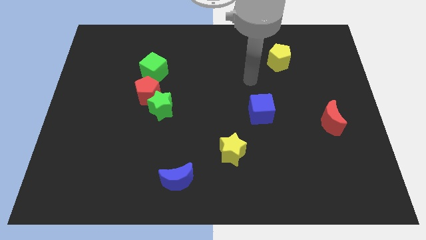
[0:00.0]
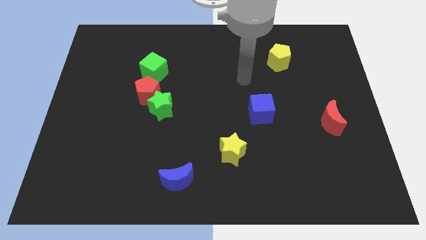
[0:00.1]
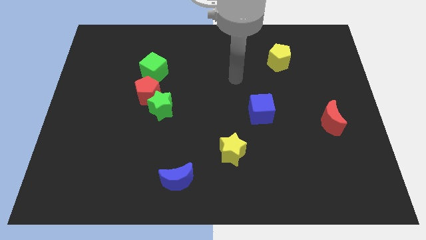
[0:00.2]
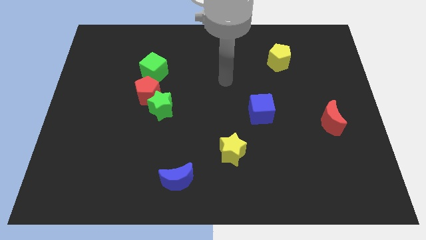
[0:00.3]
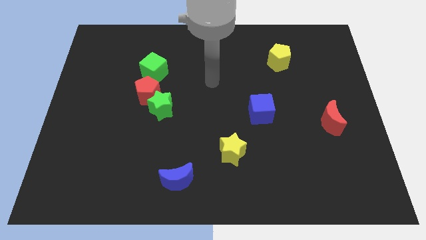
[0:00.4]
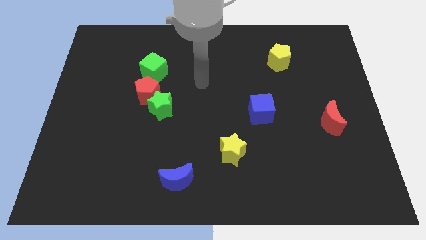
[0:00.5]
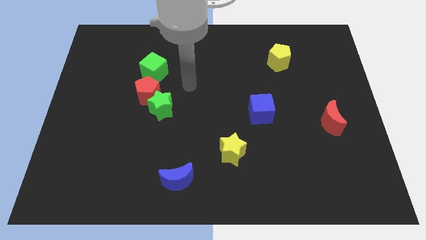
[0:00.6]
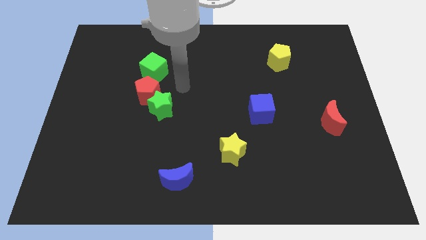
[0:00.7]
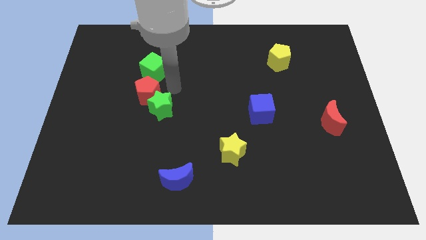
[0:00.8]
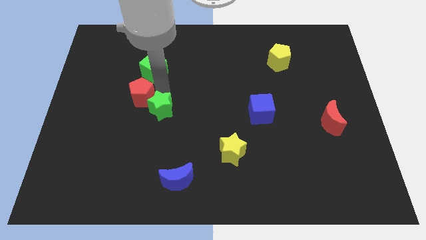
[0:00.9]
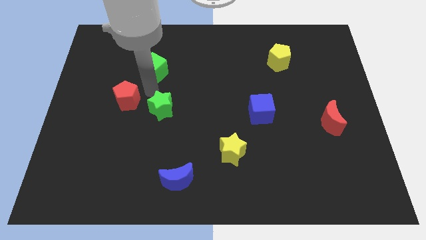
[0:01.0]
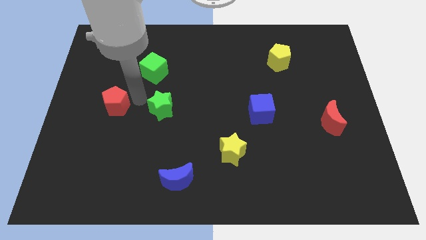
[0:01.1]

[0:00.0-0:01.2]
separate the green star from the red pentagon

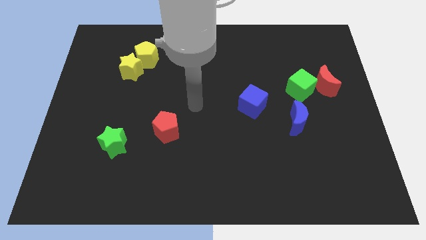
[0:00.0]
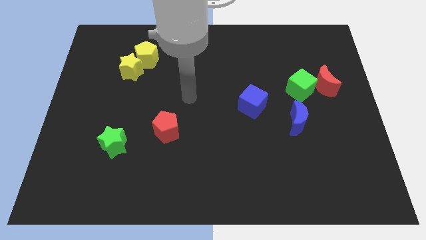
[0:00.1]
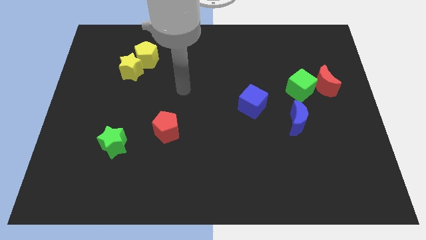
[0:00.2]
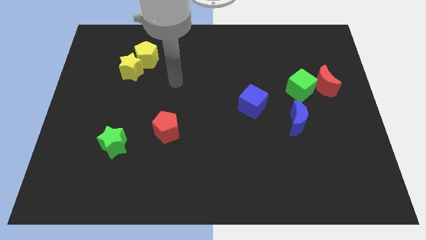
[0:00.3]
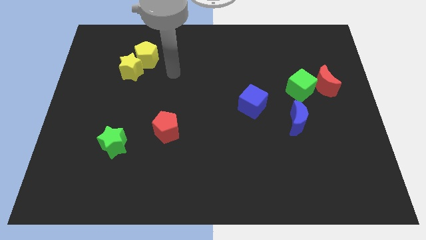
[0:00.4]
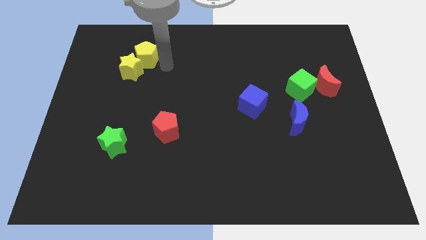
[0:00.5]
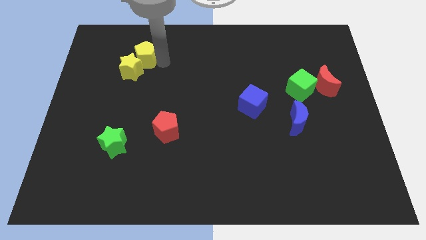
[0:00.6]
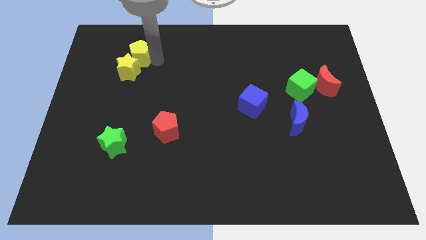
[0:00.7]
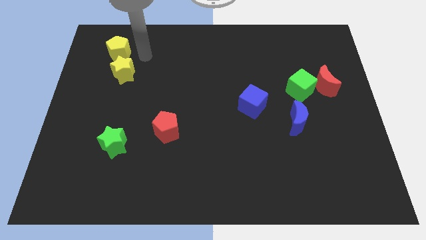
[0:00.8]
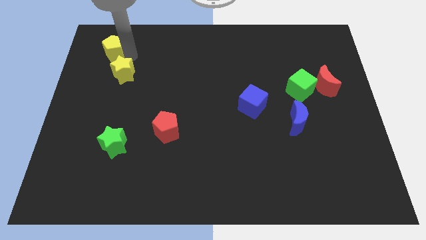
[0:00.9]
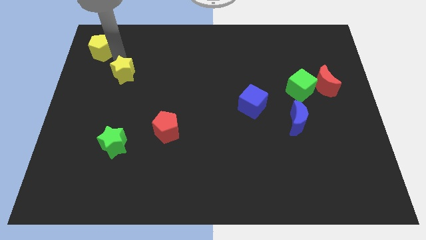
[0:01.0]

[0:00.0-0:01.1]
pull the yellow star apart from the yellow pentagon

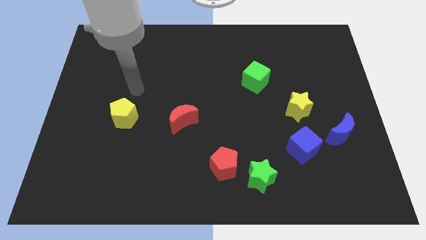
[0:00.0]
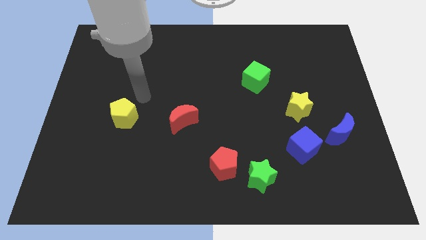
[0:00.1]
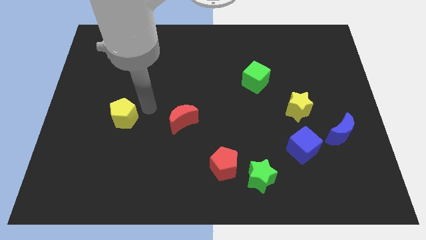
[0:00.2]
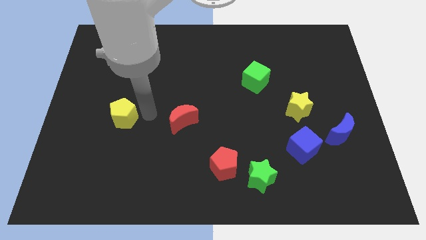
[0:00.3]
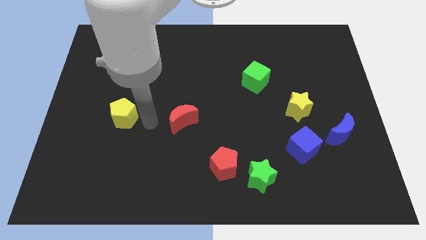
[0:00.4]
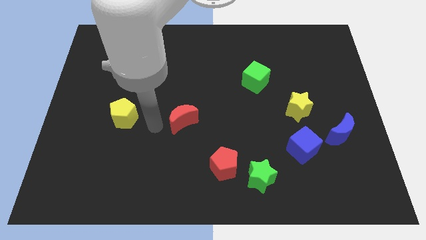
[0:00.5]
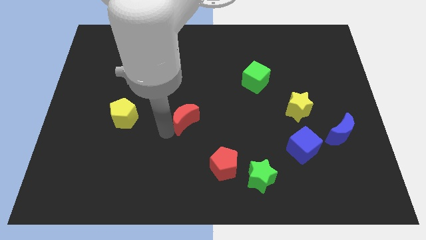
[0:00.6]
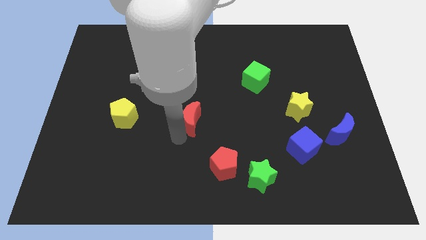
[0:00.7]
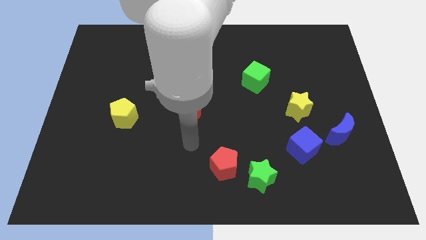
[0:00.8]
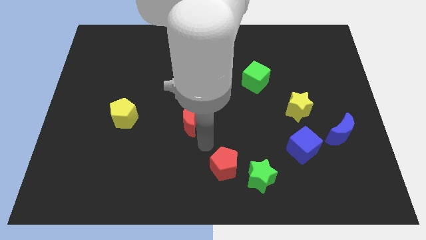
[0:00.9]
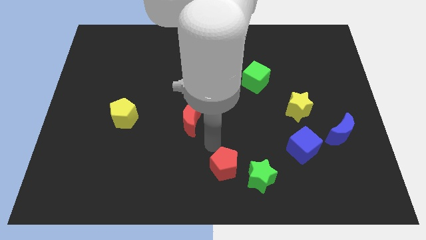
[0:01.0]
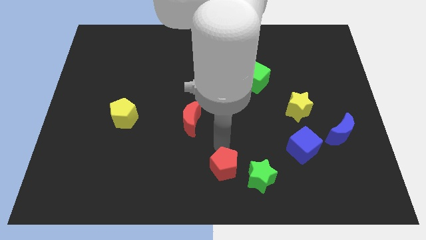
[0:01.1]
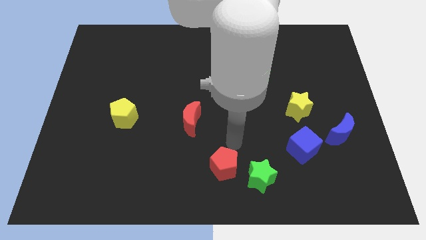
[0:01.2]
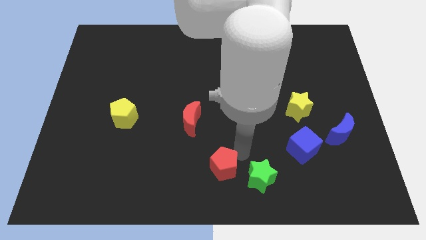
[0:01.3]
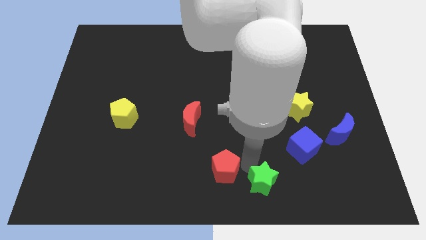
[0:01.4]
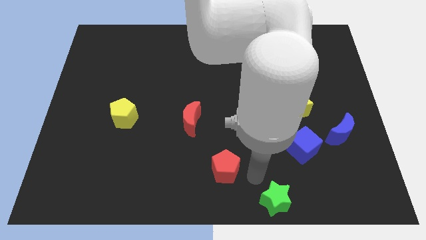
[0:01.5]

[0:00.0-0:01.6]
move the red pentagon away from the green star

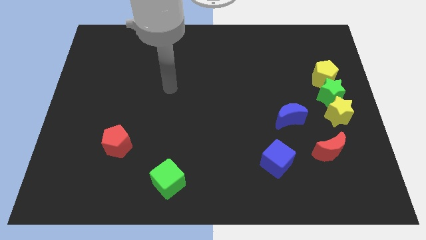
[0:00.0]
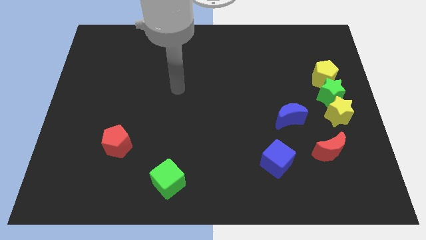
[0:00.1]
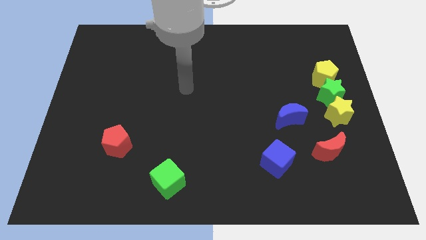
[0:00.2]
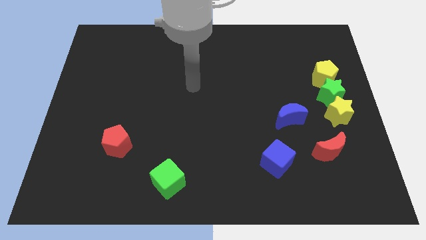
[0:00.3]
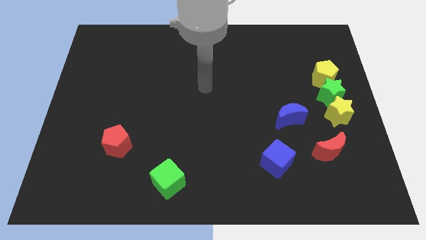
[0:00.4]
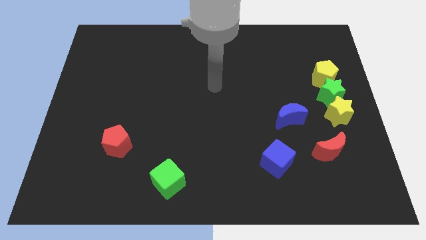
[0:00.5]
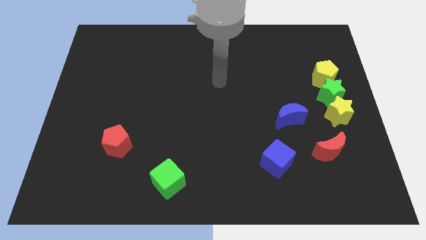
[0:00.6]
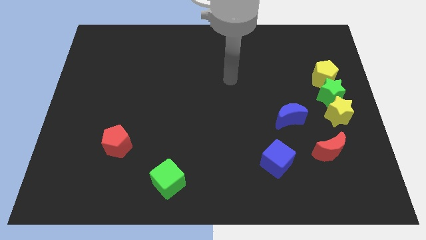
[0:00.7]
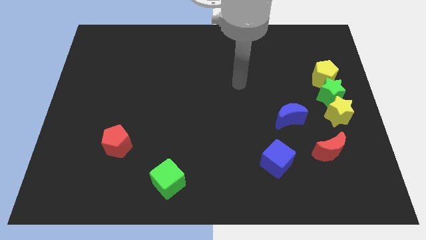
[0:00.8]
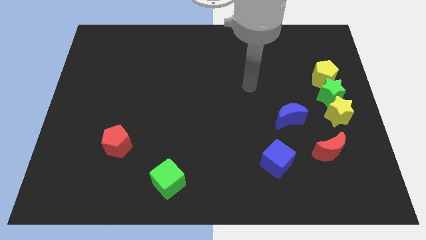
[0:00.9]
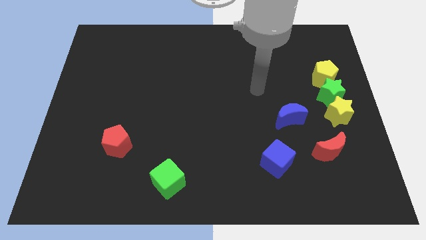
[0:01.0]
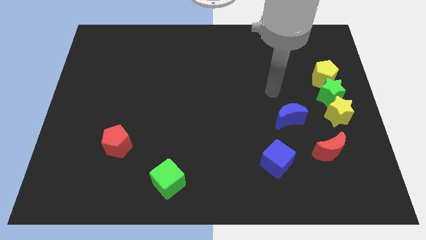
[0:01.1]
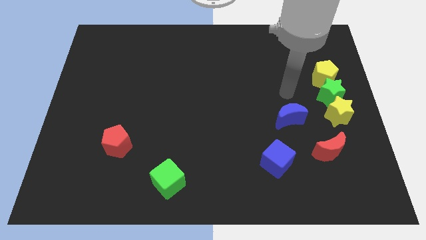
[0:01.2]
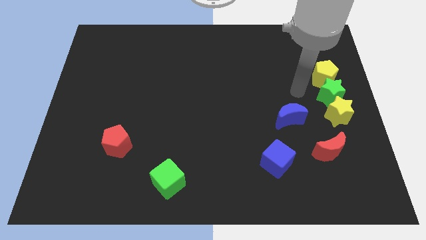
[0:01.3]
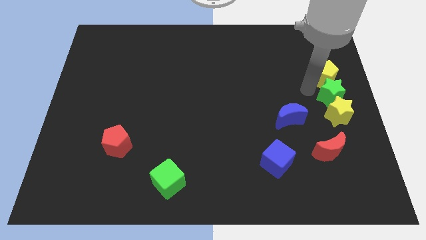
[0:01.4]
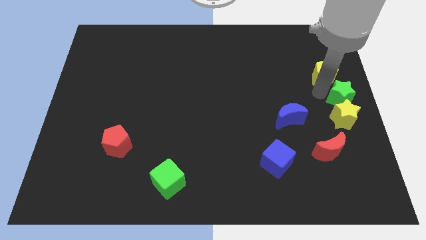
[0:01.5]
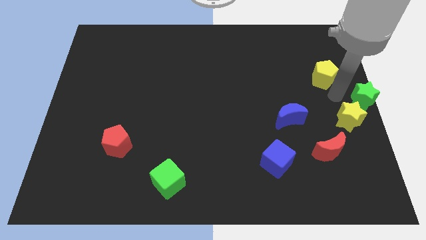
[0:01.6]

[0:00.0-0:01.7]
move the yellow pentagon away from the green star

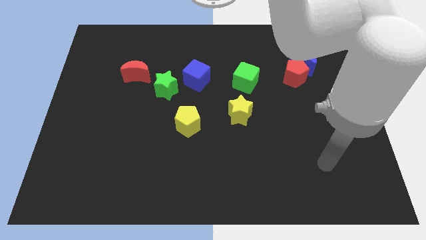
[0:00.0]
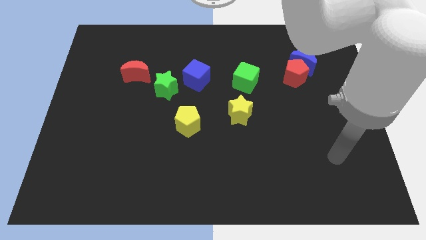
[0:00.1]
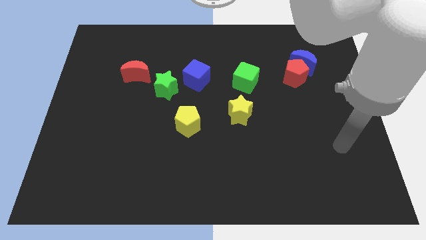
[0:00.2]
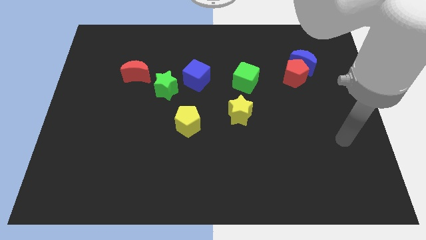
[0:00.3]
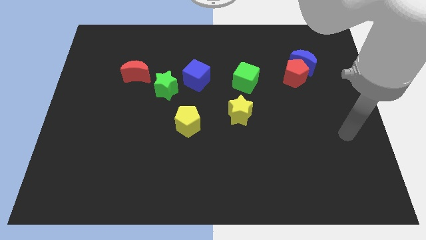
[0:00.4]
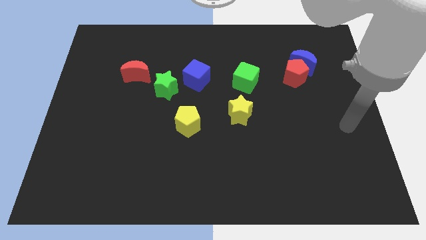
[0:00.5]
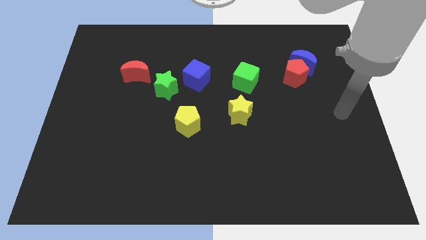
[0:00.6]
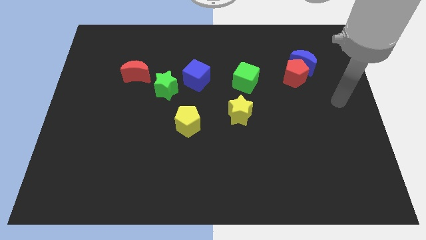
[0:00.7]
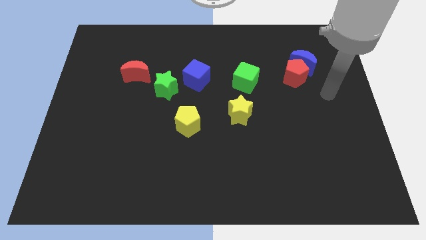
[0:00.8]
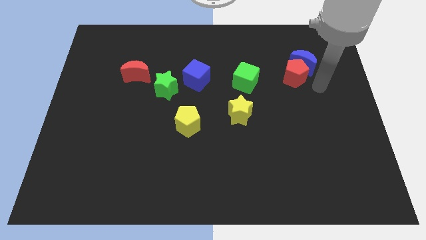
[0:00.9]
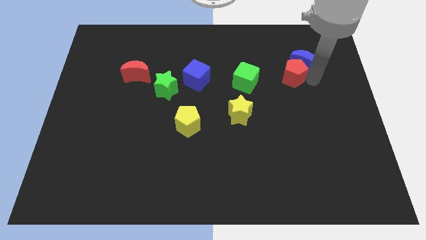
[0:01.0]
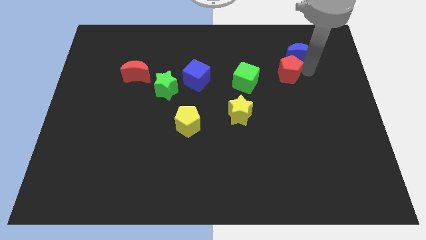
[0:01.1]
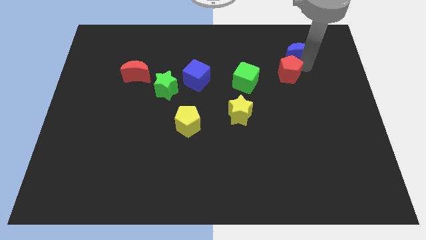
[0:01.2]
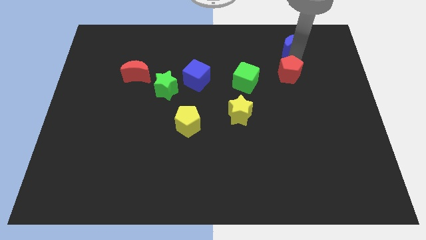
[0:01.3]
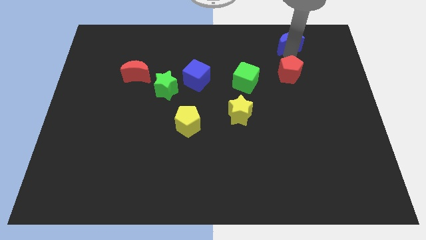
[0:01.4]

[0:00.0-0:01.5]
pull the red pentagon apart from the blue moon

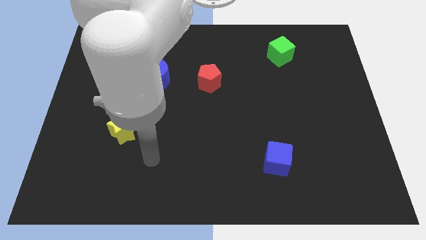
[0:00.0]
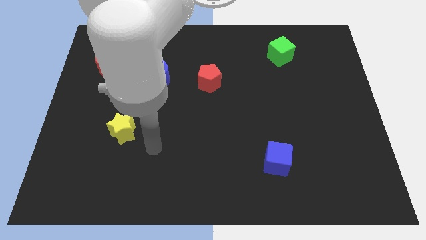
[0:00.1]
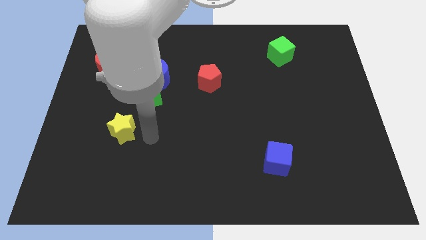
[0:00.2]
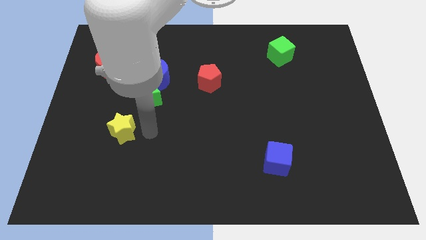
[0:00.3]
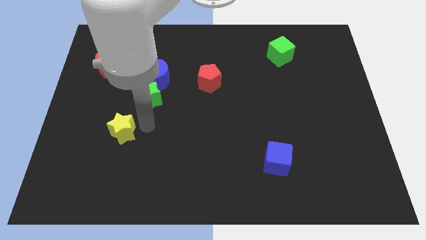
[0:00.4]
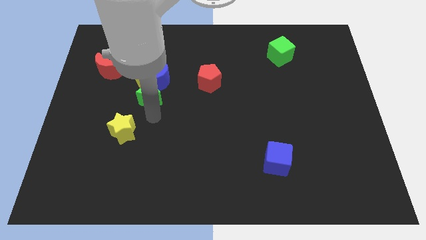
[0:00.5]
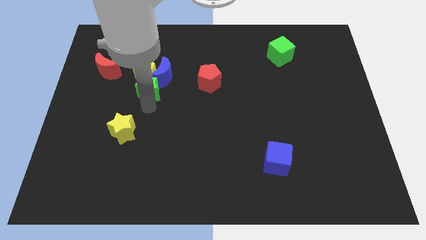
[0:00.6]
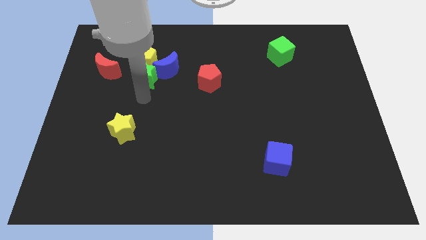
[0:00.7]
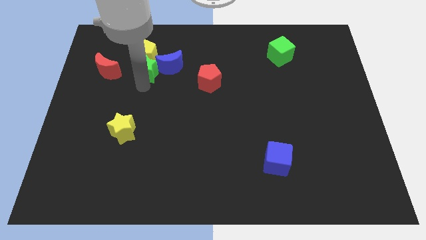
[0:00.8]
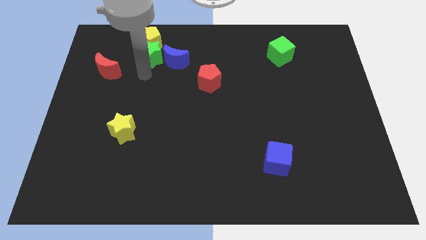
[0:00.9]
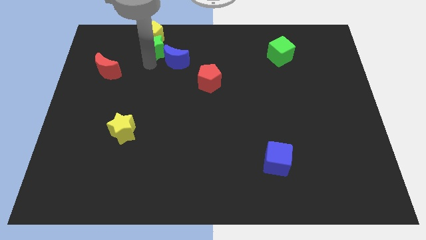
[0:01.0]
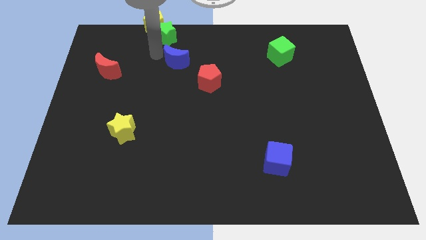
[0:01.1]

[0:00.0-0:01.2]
pull the blue moon apart from the yellow pentagon and green star

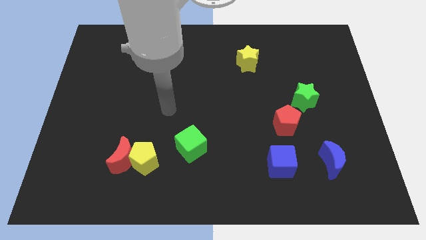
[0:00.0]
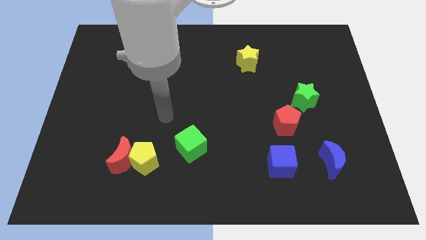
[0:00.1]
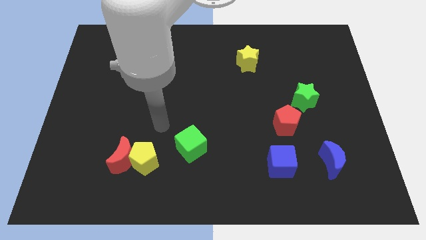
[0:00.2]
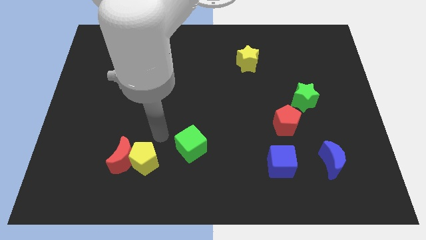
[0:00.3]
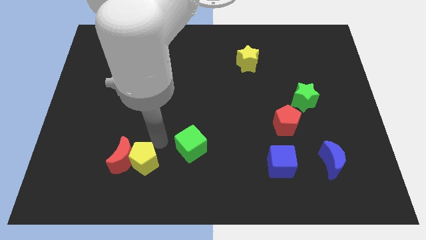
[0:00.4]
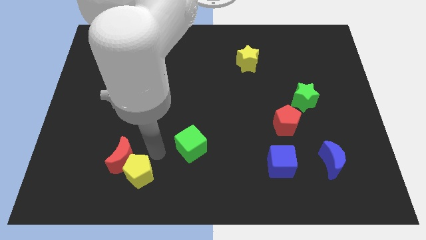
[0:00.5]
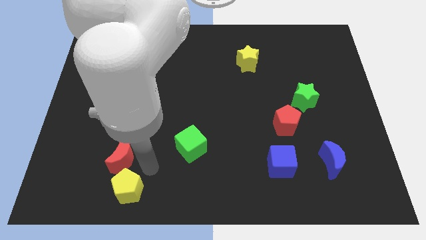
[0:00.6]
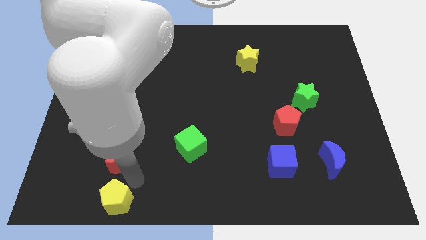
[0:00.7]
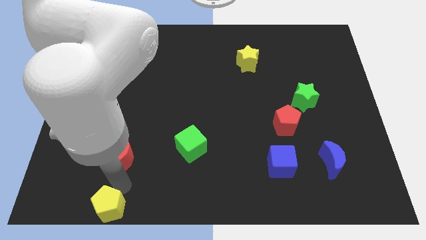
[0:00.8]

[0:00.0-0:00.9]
pull the red moon apart from the yellow pentagon

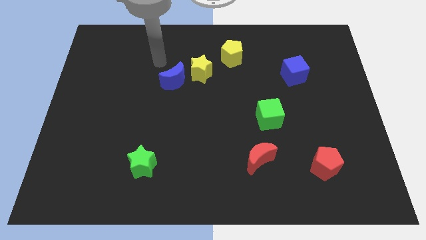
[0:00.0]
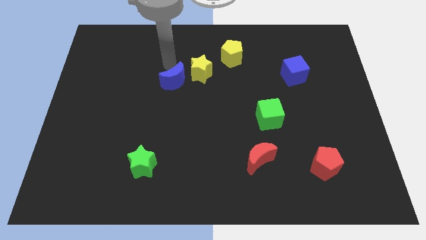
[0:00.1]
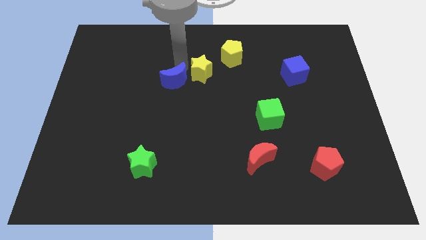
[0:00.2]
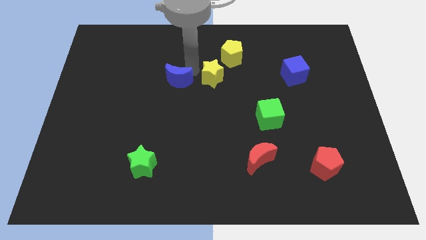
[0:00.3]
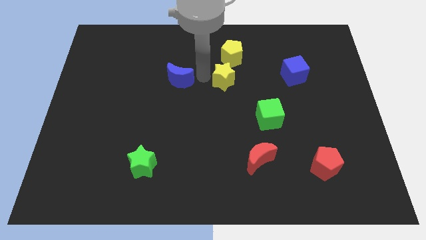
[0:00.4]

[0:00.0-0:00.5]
pull the blue moon apart from the yellow star
